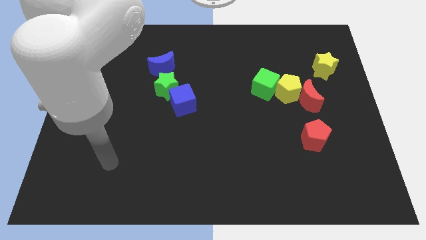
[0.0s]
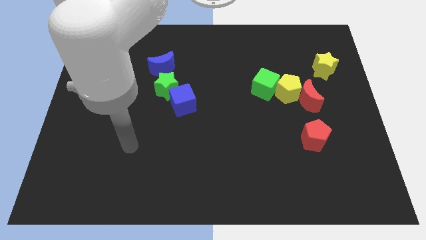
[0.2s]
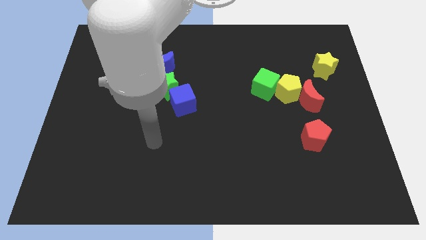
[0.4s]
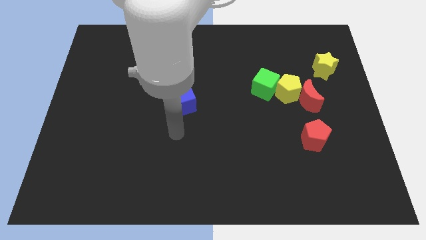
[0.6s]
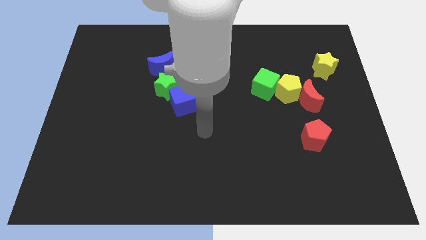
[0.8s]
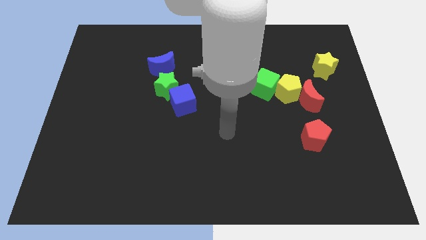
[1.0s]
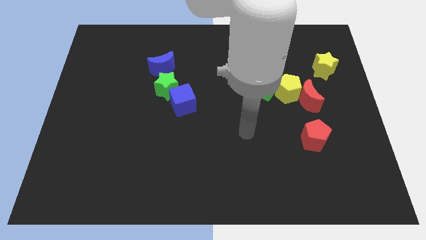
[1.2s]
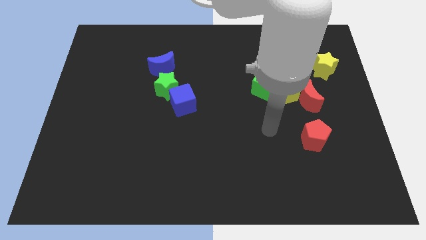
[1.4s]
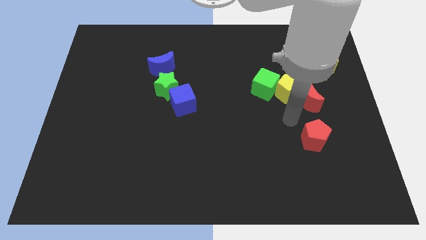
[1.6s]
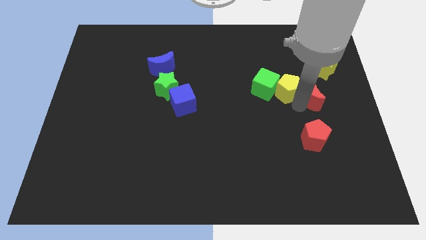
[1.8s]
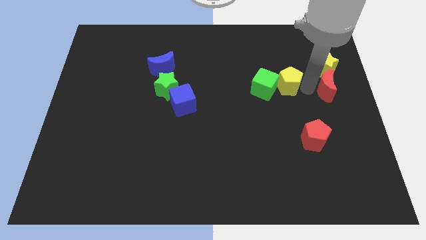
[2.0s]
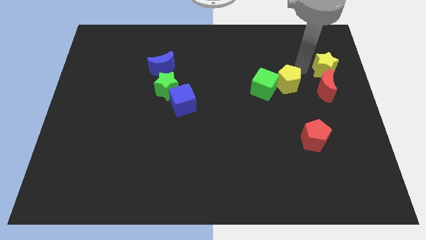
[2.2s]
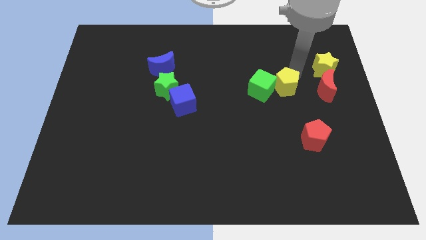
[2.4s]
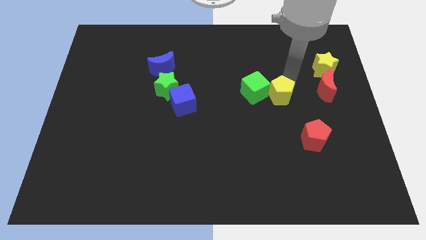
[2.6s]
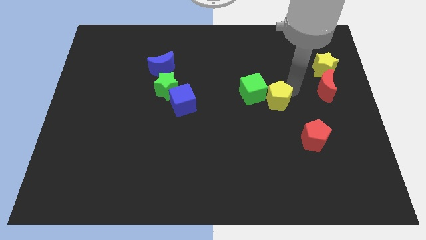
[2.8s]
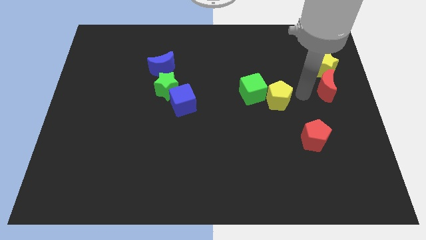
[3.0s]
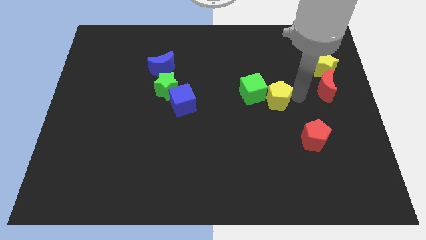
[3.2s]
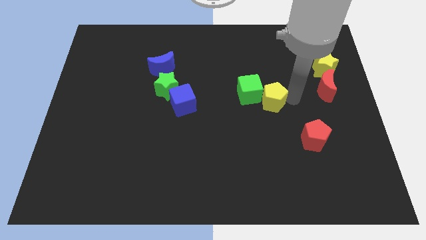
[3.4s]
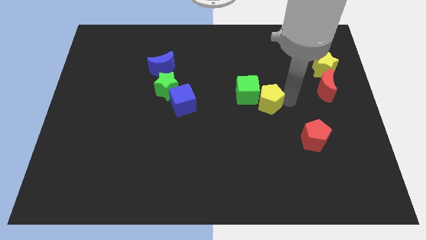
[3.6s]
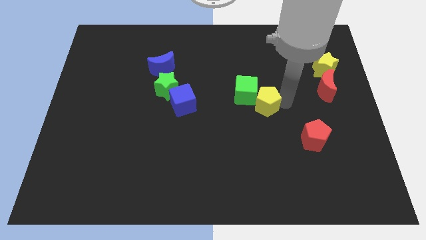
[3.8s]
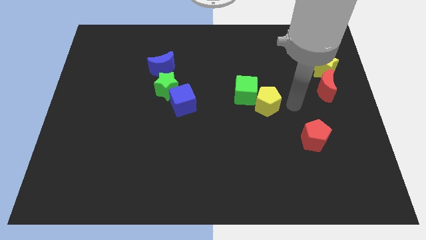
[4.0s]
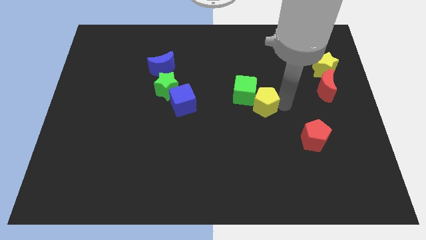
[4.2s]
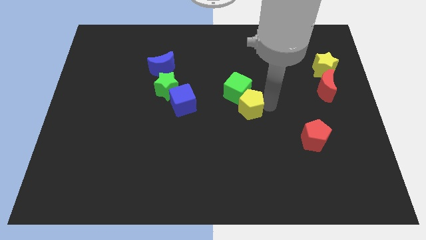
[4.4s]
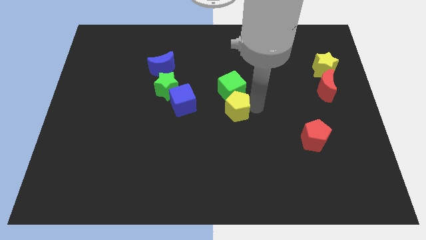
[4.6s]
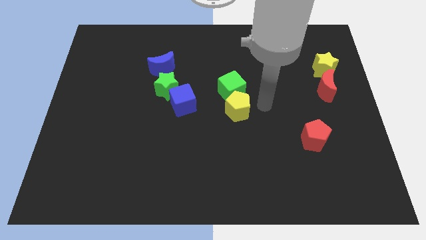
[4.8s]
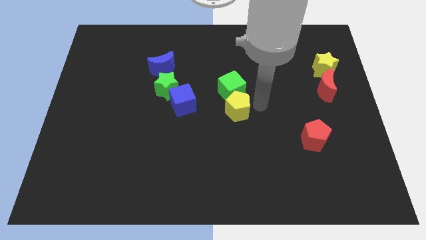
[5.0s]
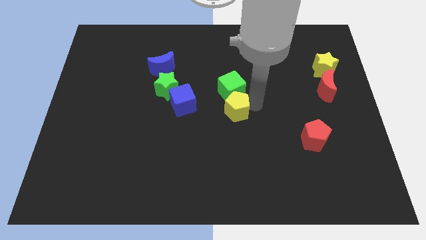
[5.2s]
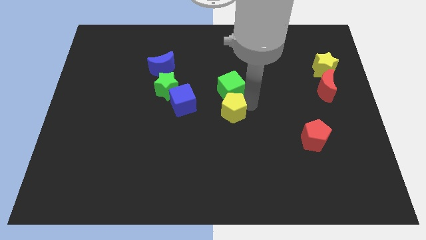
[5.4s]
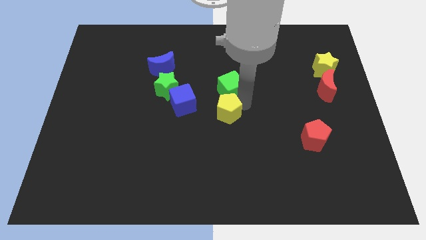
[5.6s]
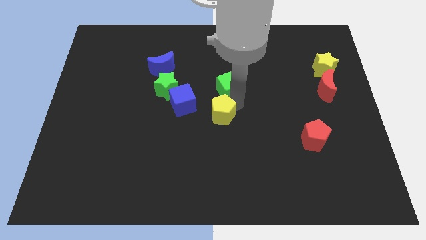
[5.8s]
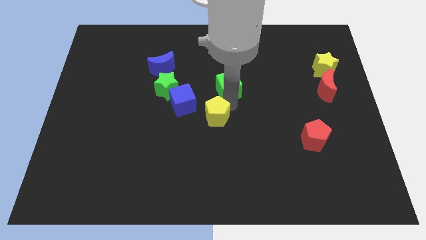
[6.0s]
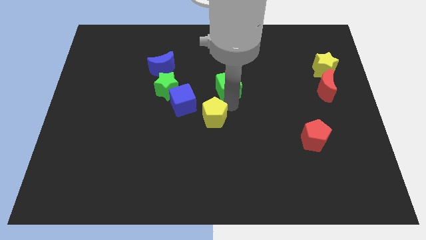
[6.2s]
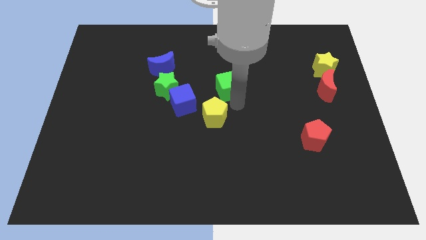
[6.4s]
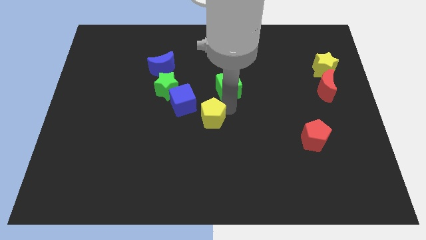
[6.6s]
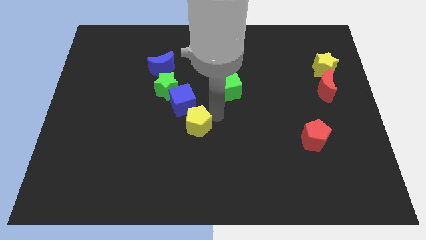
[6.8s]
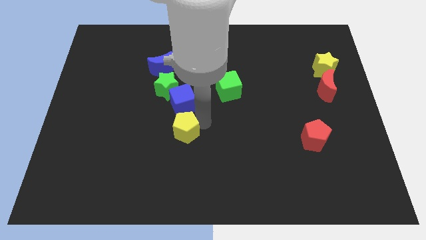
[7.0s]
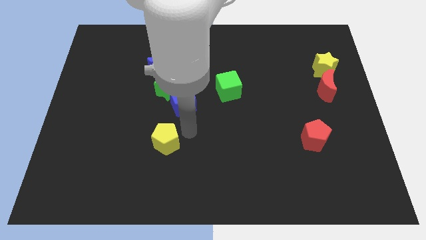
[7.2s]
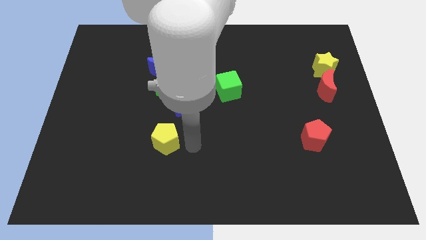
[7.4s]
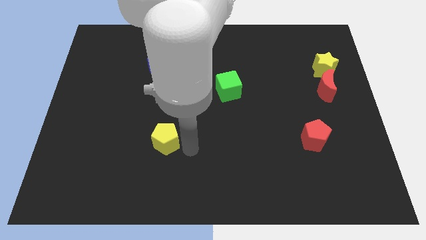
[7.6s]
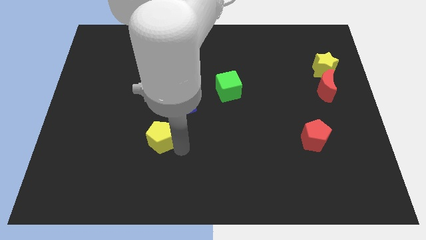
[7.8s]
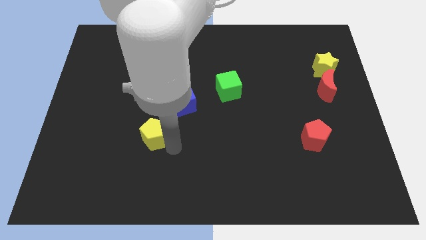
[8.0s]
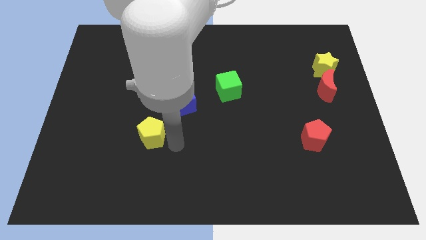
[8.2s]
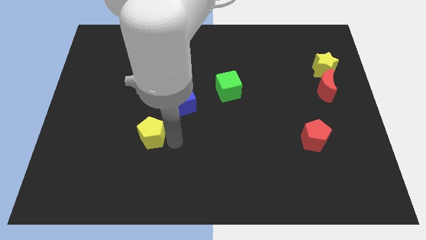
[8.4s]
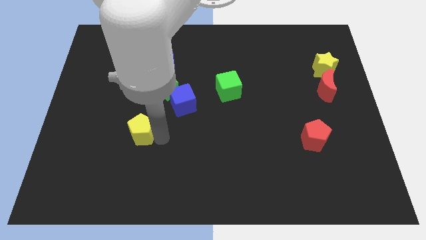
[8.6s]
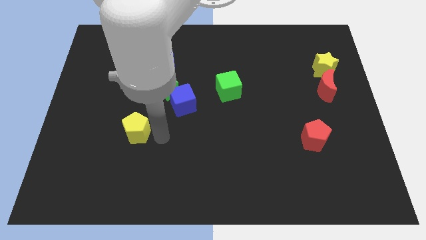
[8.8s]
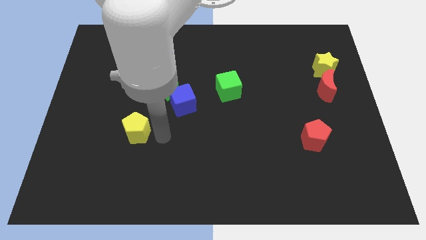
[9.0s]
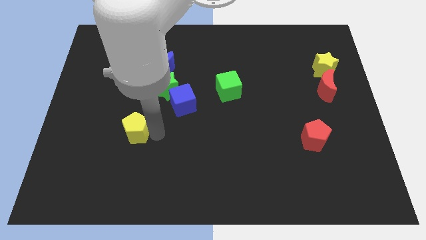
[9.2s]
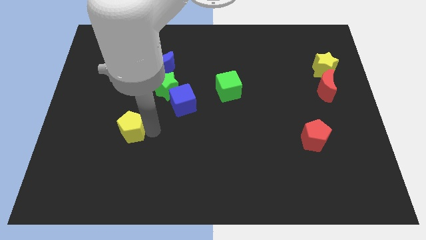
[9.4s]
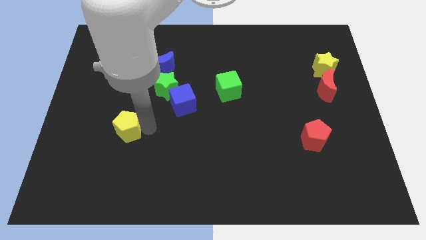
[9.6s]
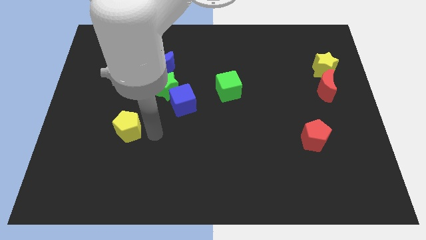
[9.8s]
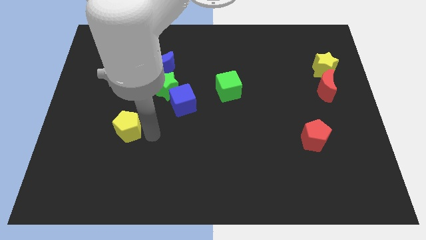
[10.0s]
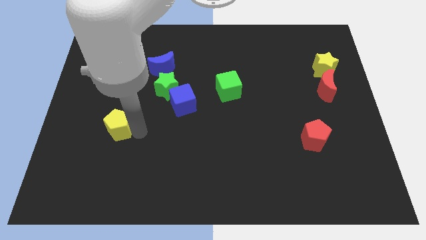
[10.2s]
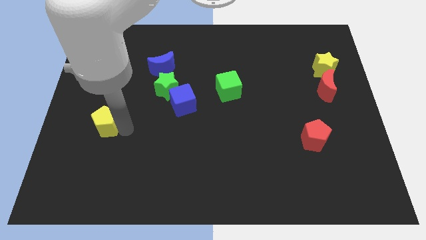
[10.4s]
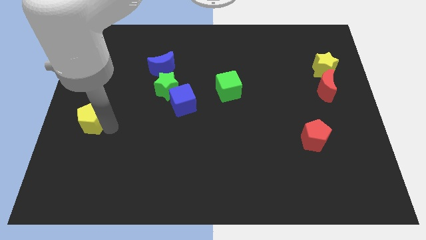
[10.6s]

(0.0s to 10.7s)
push the yellow pentagon to the left side of the board

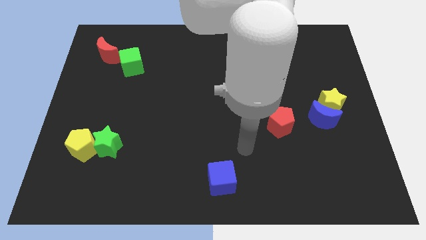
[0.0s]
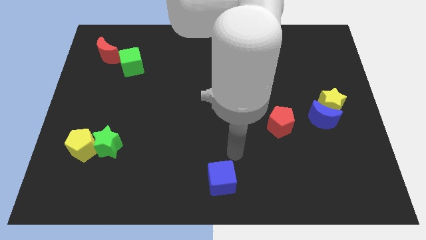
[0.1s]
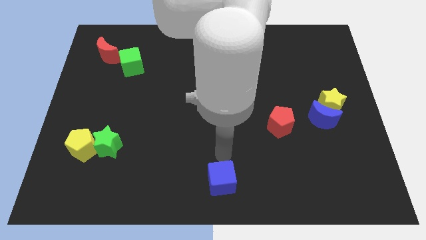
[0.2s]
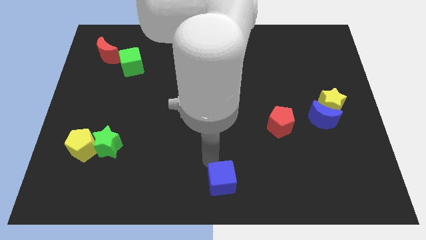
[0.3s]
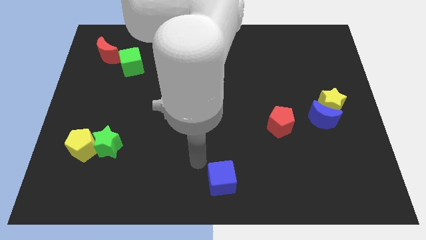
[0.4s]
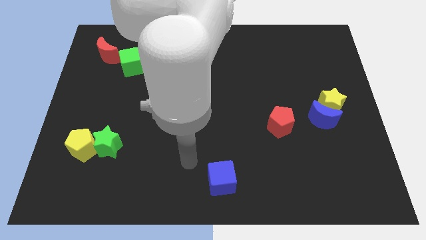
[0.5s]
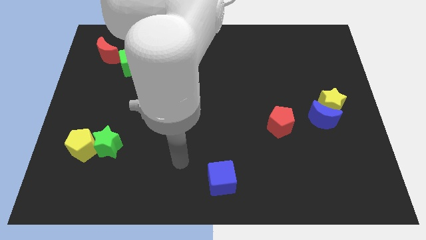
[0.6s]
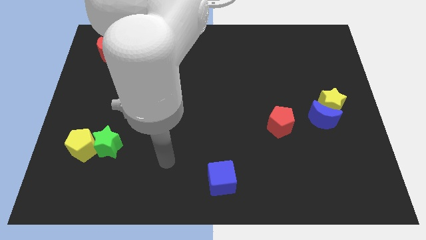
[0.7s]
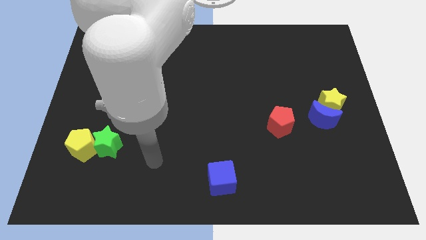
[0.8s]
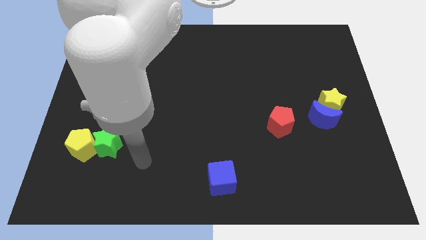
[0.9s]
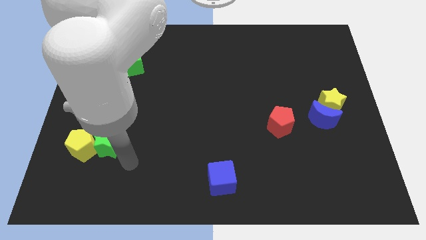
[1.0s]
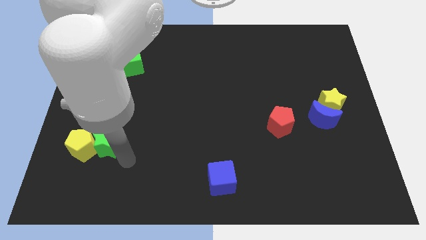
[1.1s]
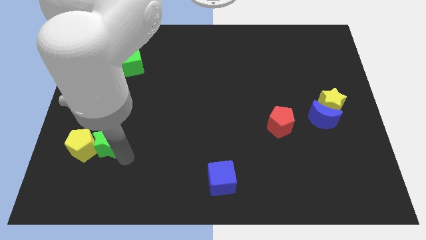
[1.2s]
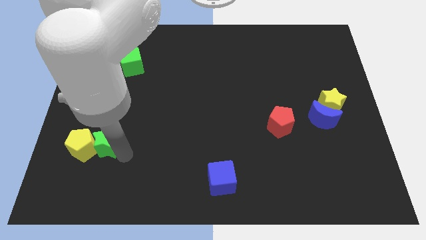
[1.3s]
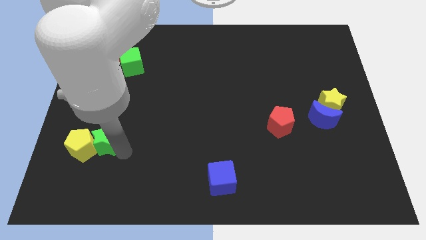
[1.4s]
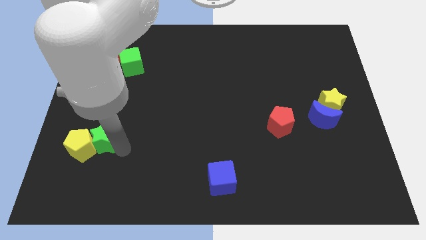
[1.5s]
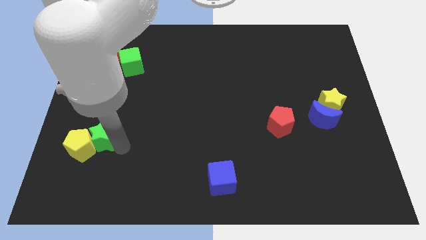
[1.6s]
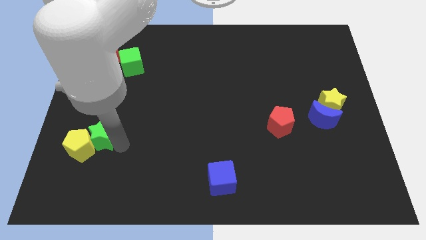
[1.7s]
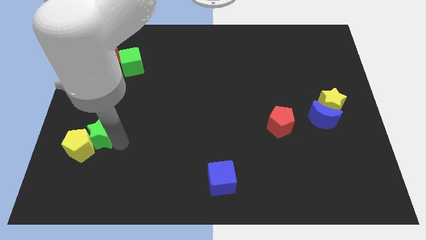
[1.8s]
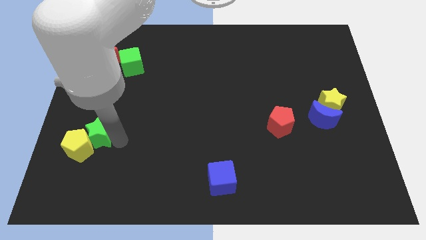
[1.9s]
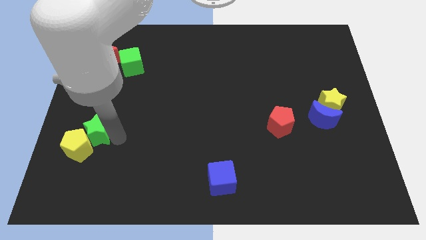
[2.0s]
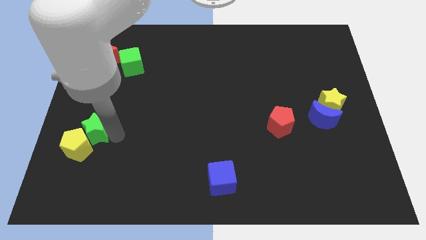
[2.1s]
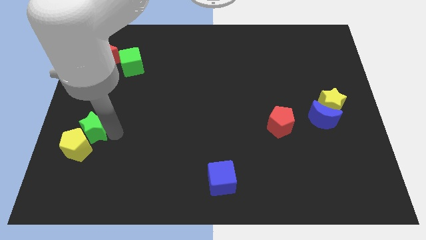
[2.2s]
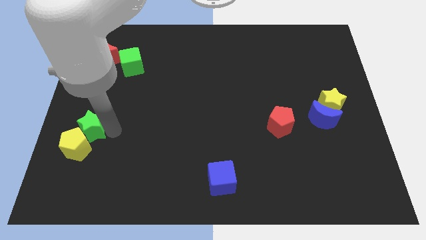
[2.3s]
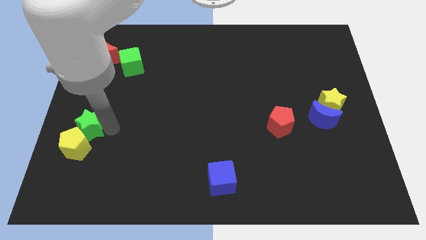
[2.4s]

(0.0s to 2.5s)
push the green star to the center left
